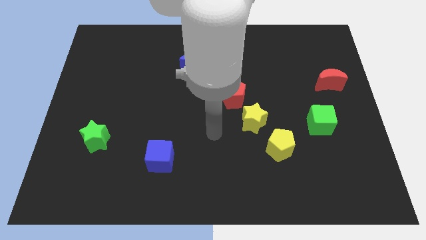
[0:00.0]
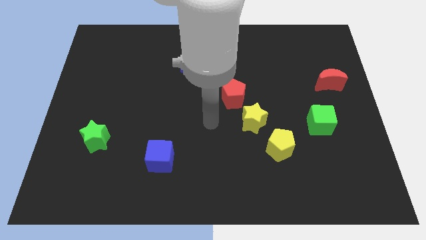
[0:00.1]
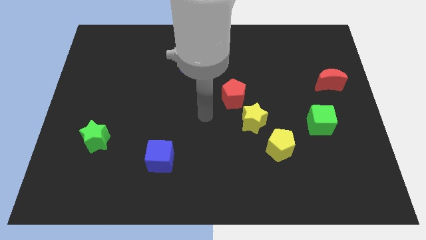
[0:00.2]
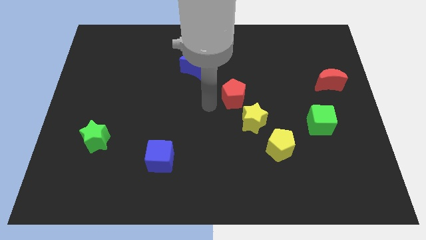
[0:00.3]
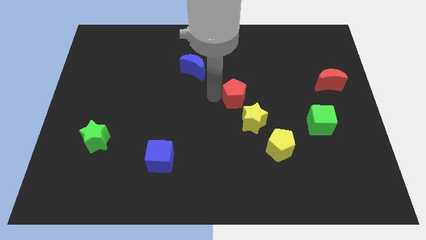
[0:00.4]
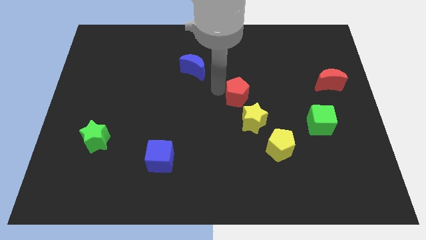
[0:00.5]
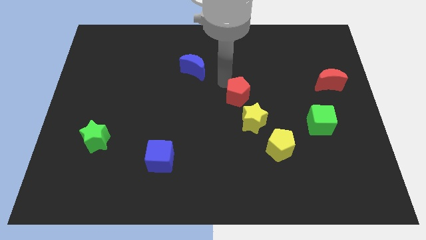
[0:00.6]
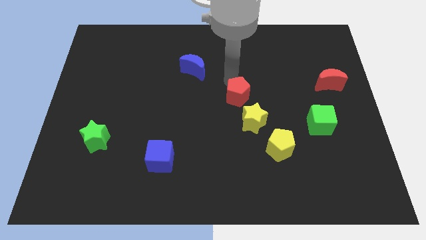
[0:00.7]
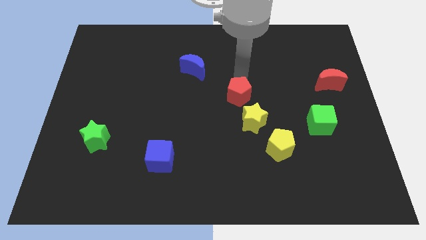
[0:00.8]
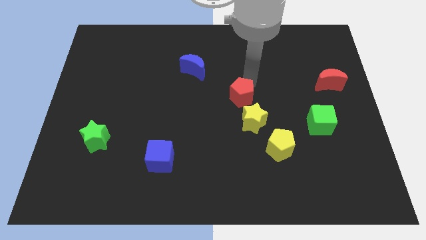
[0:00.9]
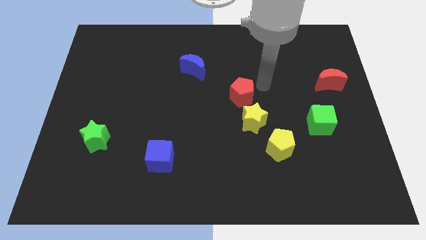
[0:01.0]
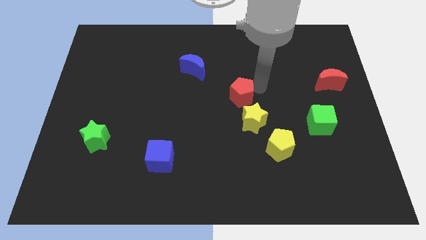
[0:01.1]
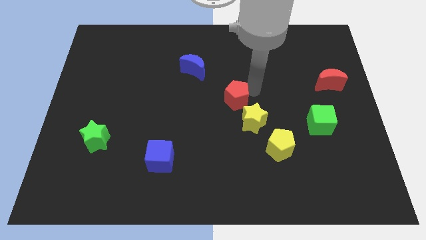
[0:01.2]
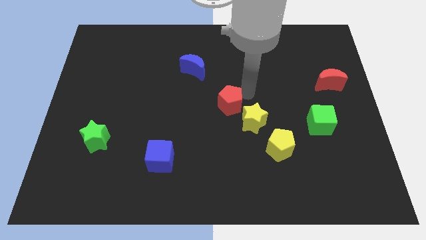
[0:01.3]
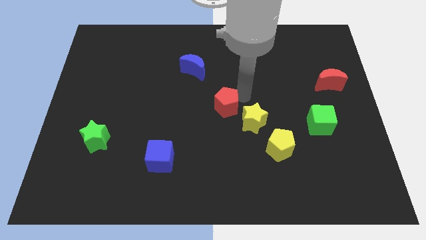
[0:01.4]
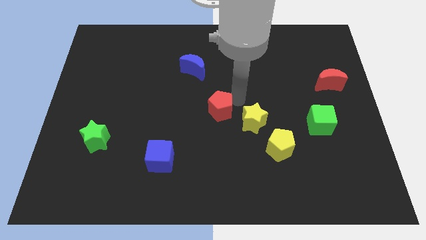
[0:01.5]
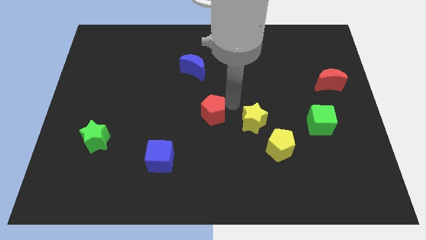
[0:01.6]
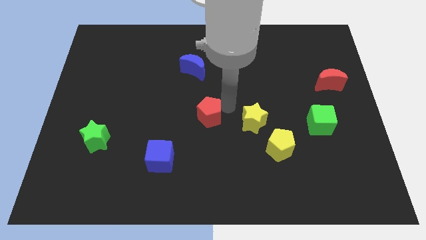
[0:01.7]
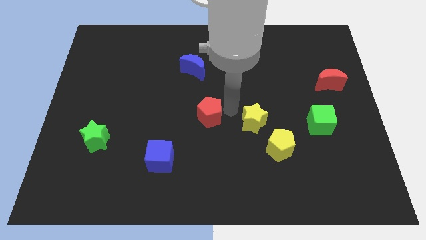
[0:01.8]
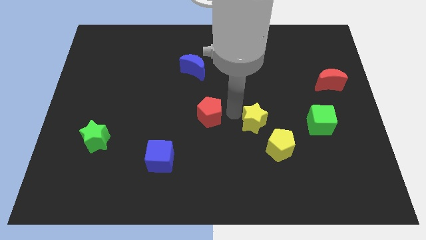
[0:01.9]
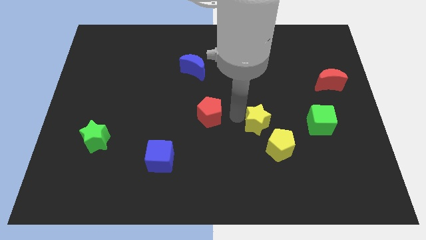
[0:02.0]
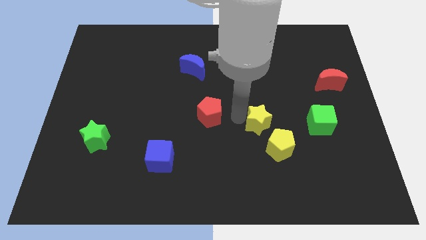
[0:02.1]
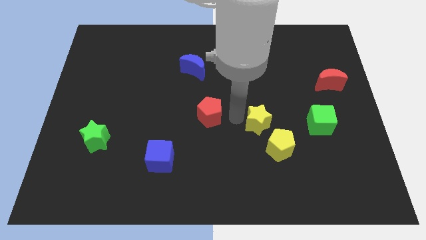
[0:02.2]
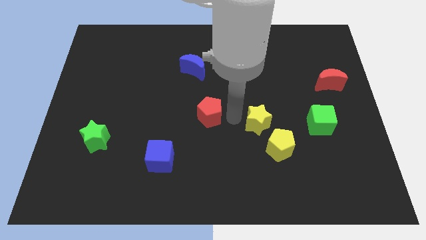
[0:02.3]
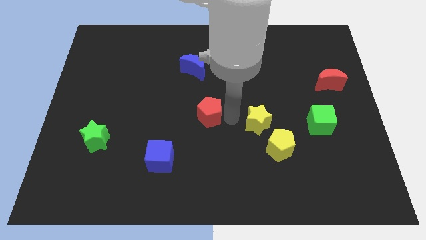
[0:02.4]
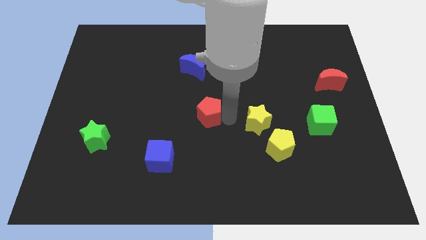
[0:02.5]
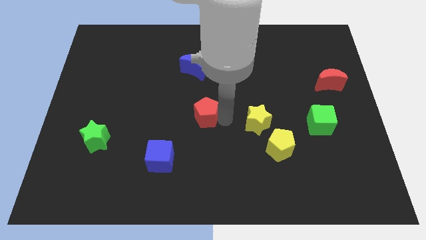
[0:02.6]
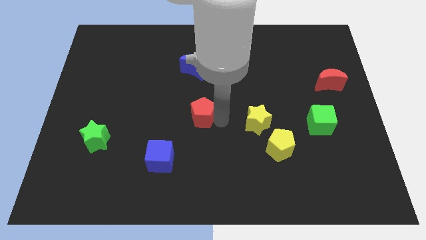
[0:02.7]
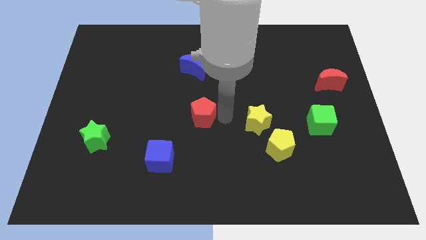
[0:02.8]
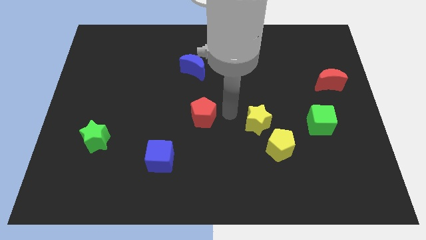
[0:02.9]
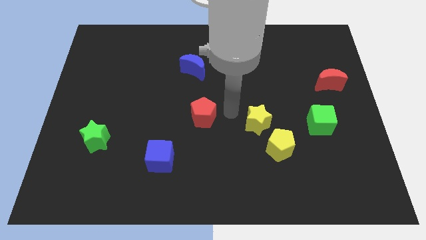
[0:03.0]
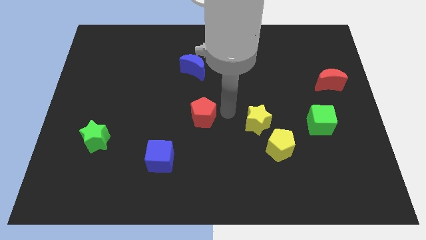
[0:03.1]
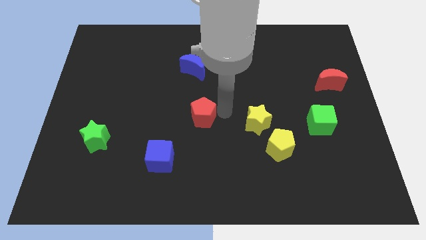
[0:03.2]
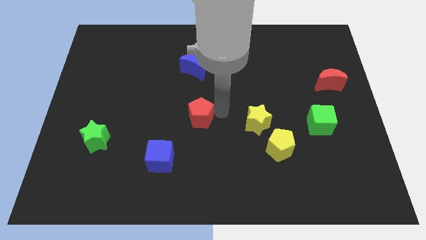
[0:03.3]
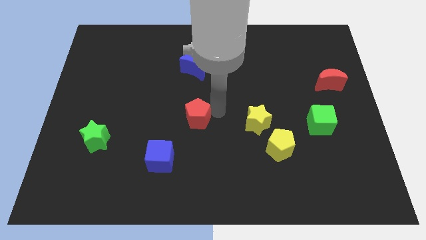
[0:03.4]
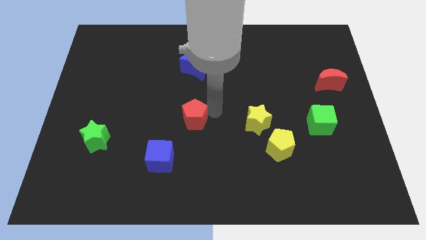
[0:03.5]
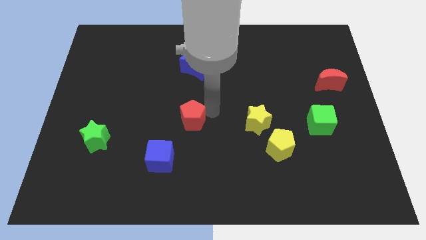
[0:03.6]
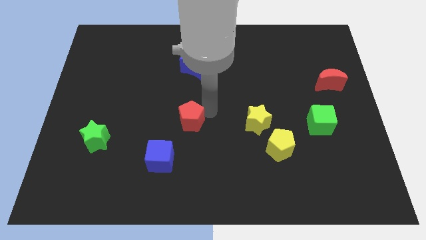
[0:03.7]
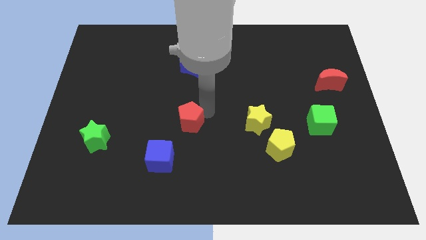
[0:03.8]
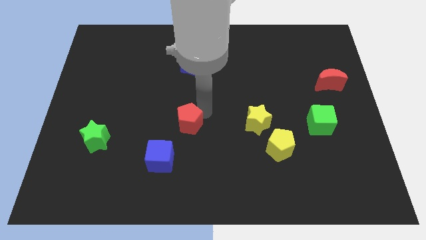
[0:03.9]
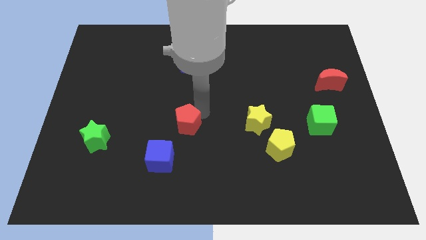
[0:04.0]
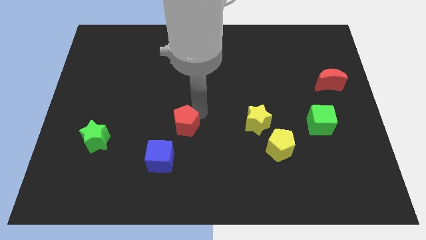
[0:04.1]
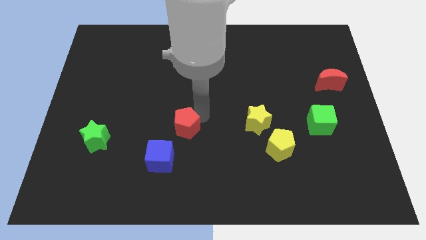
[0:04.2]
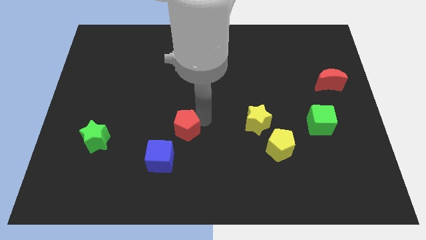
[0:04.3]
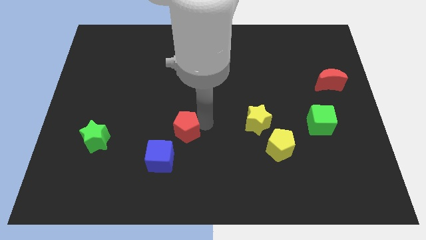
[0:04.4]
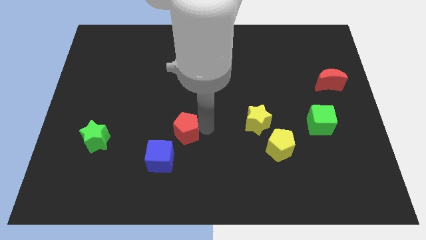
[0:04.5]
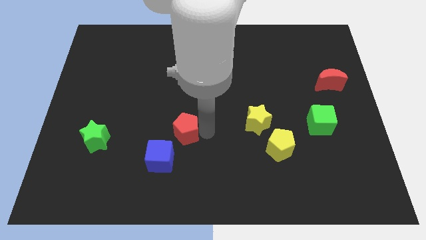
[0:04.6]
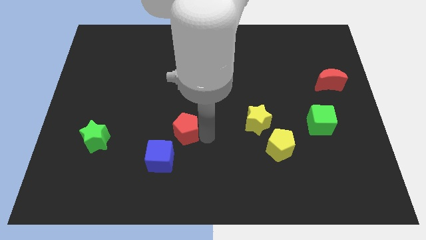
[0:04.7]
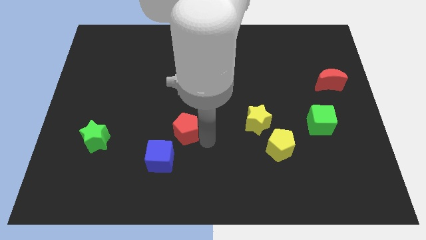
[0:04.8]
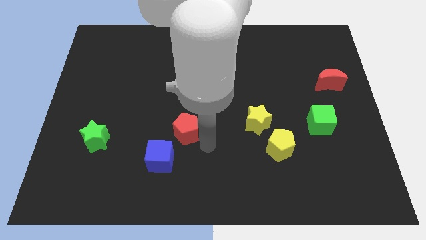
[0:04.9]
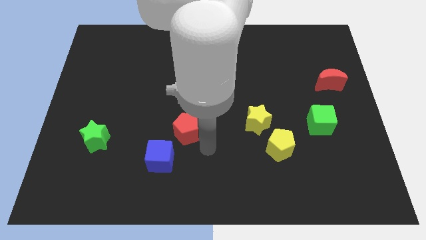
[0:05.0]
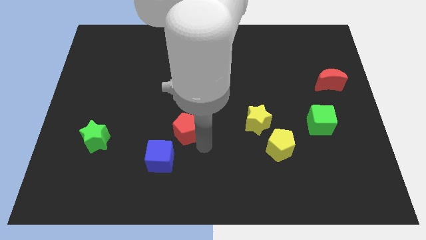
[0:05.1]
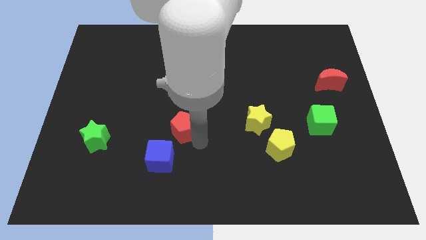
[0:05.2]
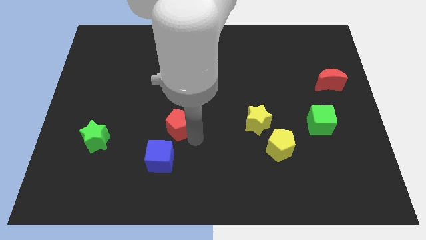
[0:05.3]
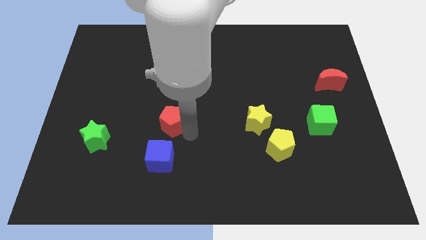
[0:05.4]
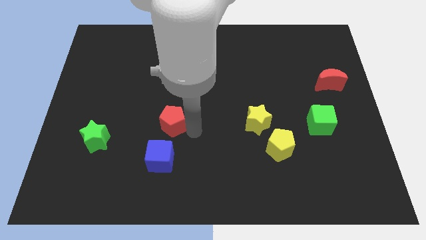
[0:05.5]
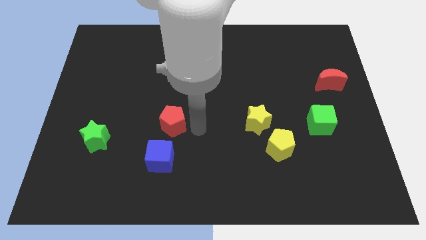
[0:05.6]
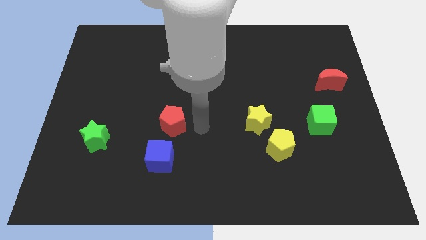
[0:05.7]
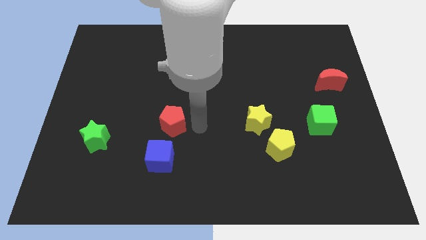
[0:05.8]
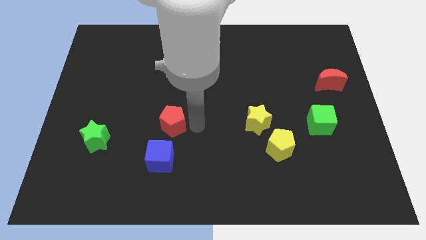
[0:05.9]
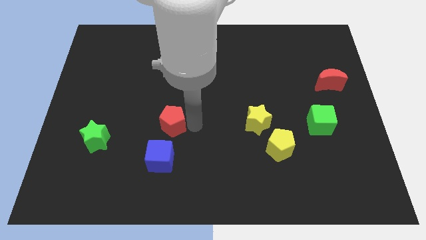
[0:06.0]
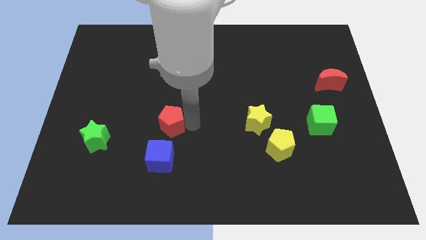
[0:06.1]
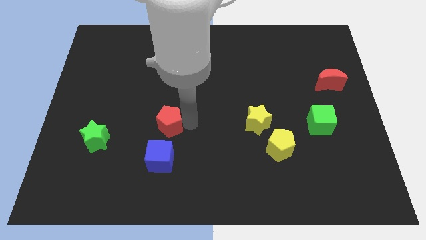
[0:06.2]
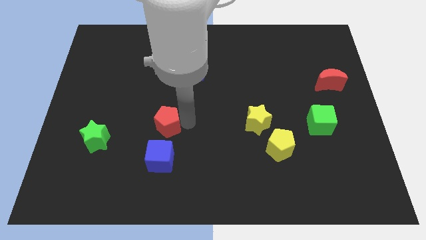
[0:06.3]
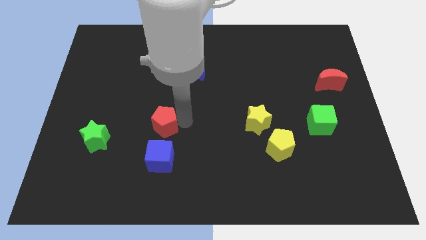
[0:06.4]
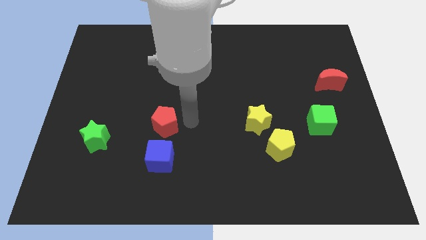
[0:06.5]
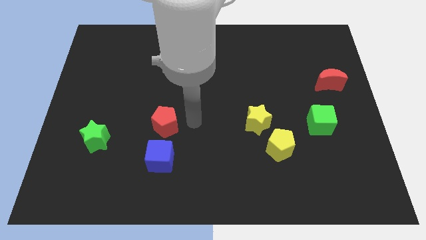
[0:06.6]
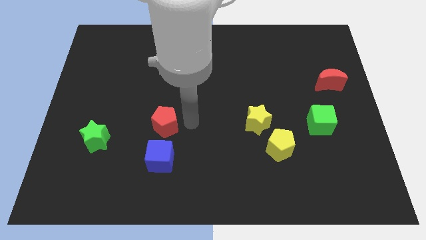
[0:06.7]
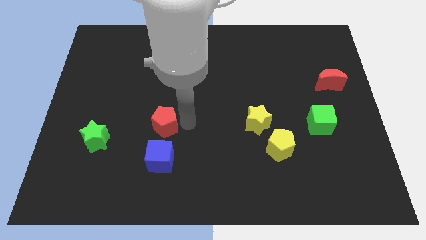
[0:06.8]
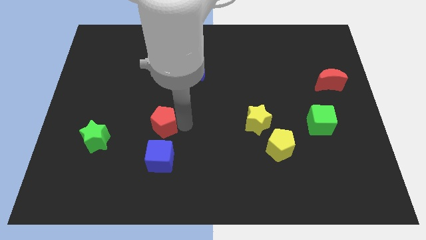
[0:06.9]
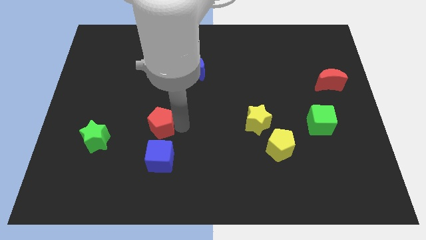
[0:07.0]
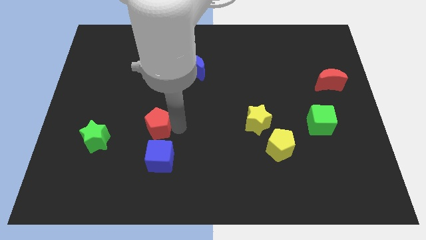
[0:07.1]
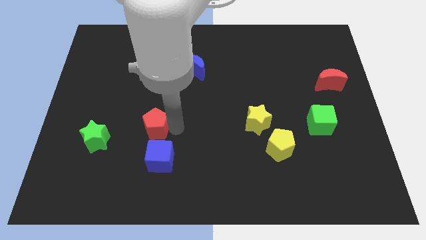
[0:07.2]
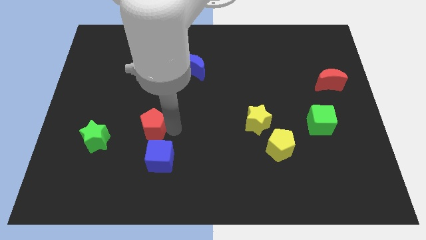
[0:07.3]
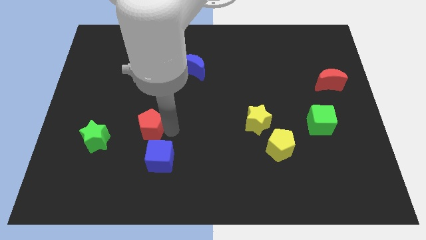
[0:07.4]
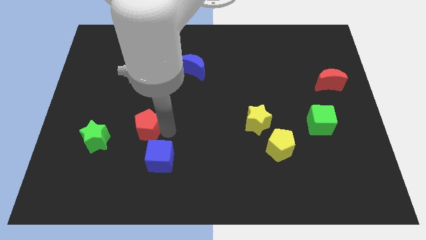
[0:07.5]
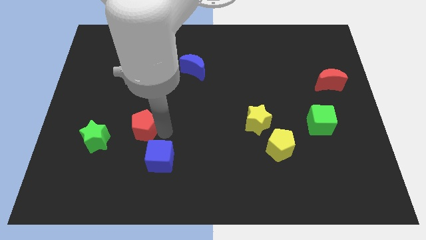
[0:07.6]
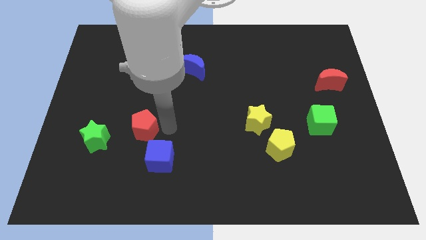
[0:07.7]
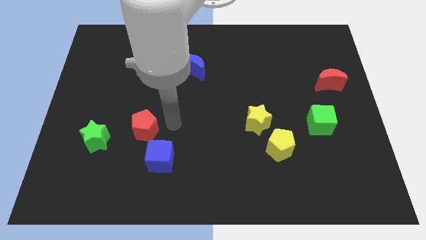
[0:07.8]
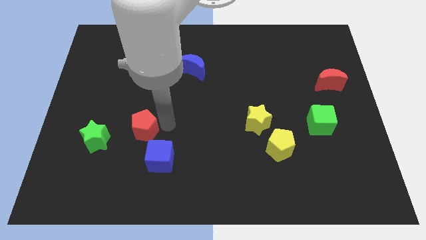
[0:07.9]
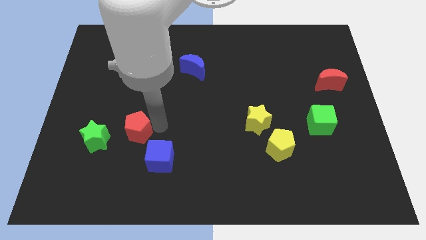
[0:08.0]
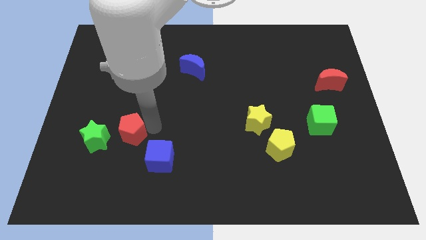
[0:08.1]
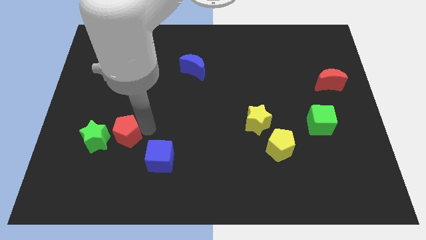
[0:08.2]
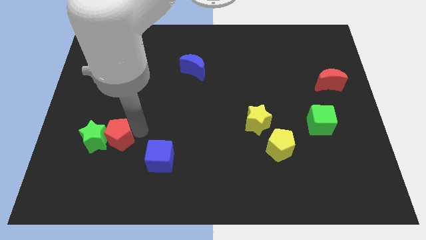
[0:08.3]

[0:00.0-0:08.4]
move the red pentagon to the green star
